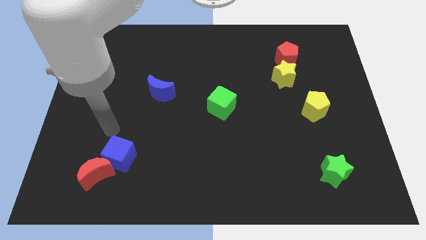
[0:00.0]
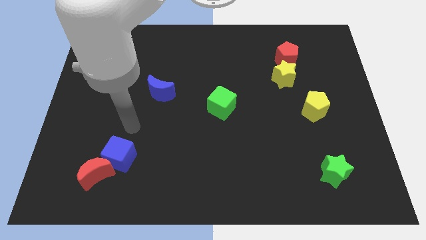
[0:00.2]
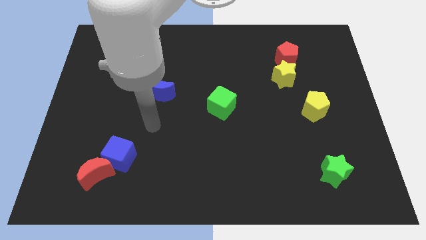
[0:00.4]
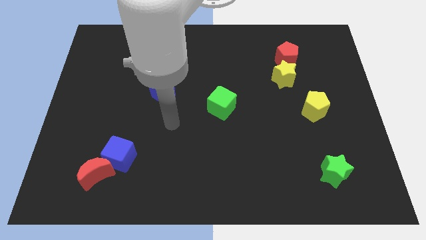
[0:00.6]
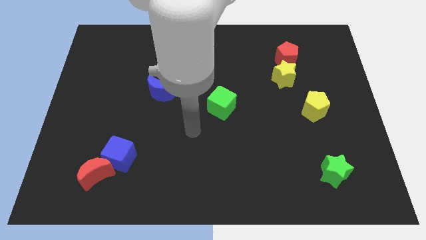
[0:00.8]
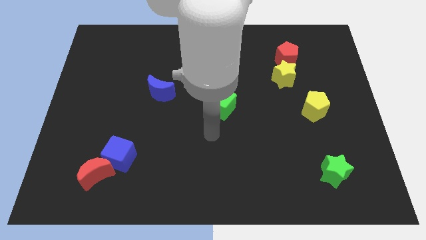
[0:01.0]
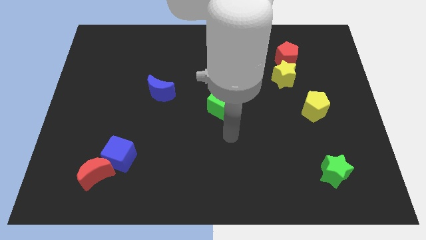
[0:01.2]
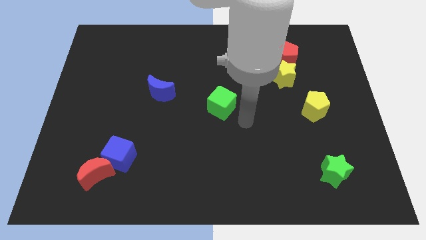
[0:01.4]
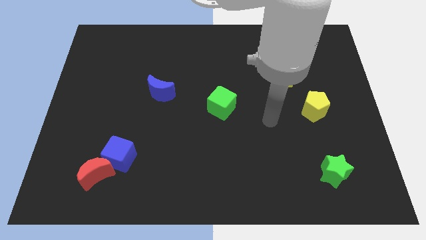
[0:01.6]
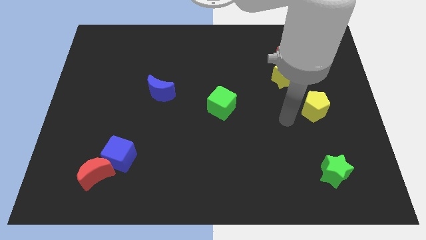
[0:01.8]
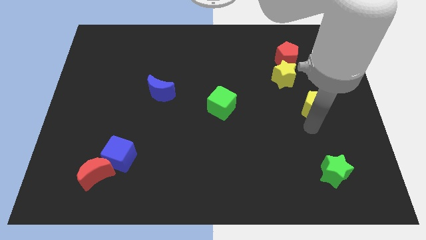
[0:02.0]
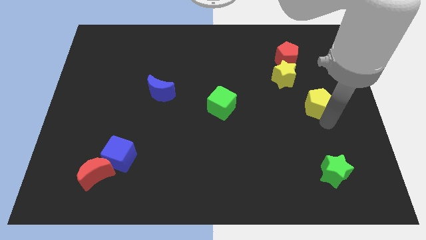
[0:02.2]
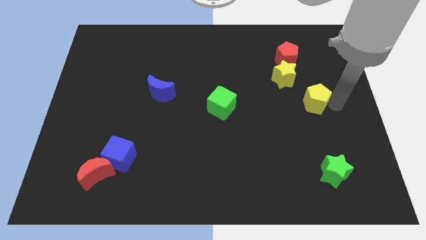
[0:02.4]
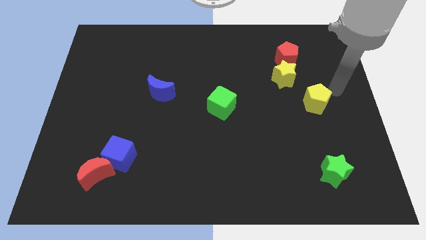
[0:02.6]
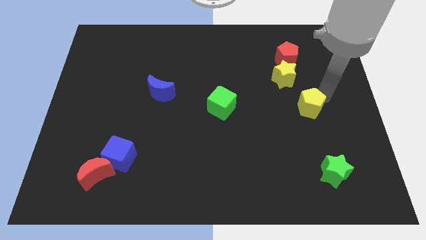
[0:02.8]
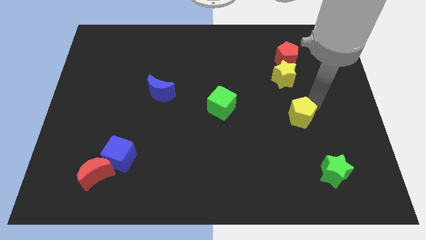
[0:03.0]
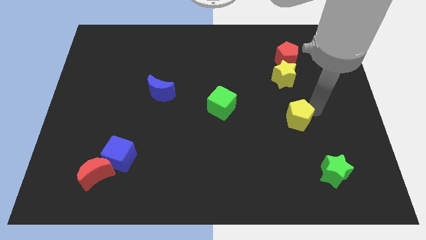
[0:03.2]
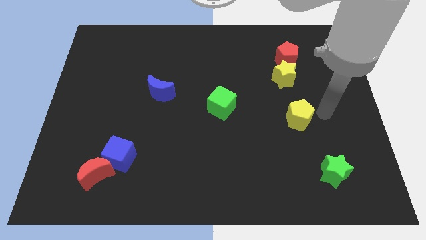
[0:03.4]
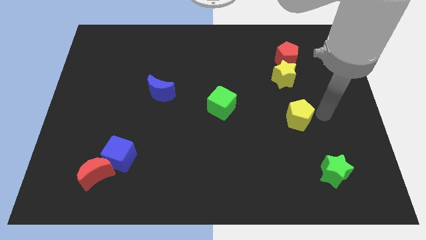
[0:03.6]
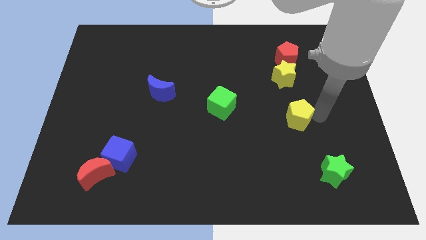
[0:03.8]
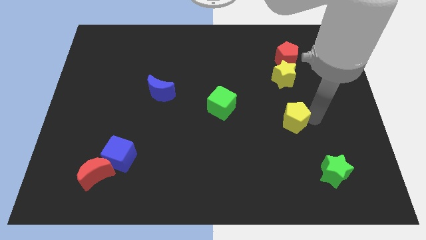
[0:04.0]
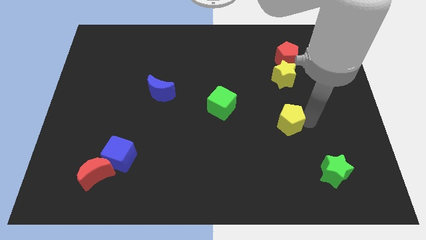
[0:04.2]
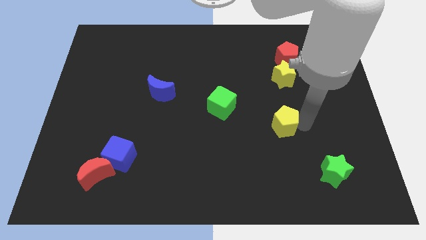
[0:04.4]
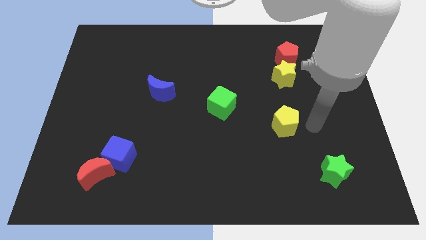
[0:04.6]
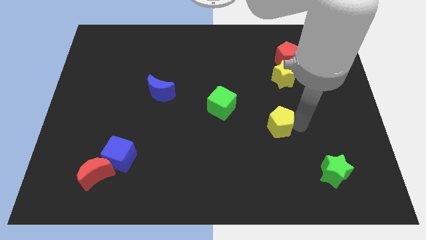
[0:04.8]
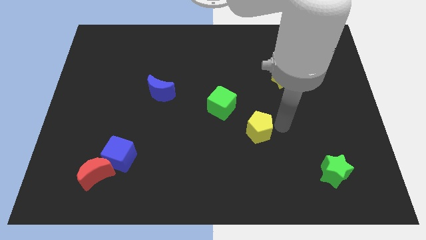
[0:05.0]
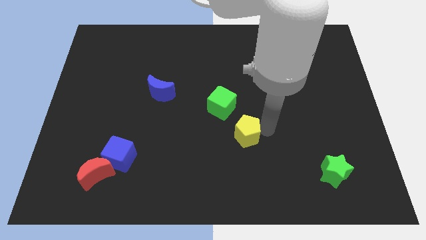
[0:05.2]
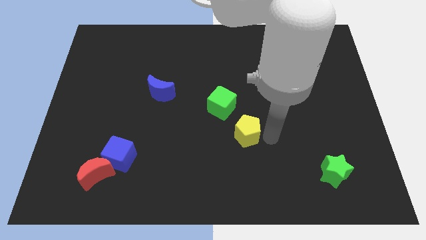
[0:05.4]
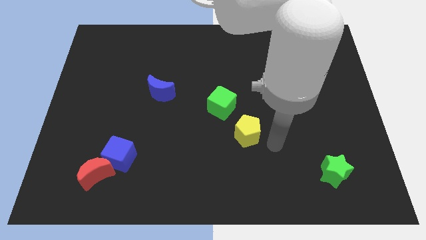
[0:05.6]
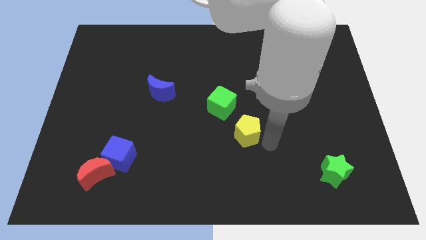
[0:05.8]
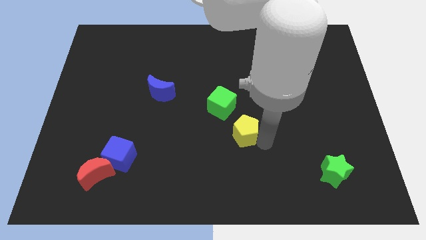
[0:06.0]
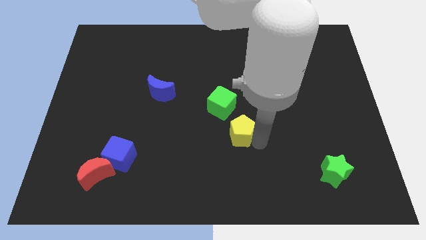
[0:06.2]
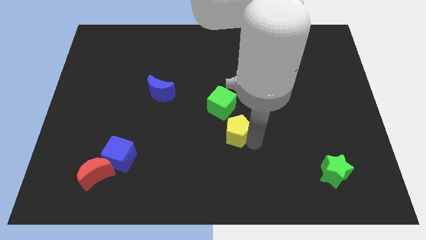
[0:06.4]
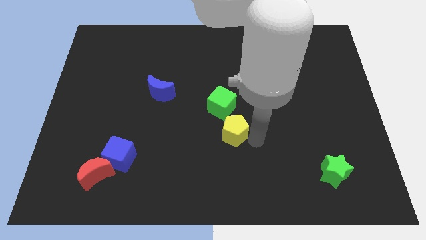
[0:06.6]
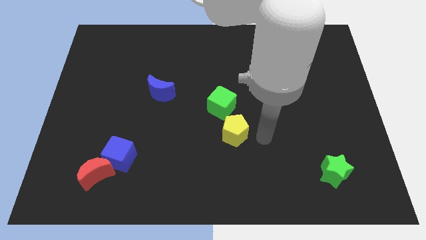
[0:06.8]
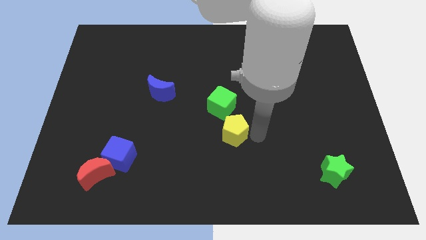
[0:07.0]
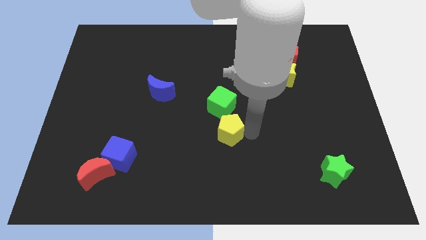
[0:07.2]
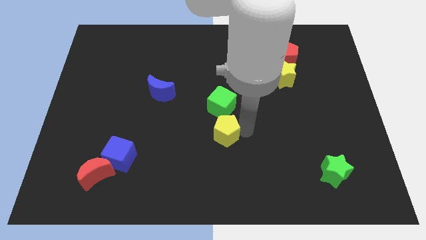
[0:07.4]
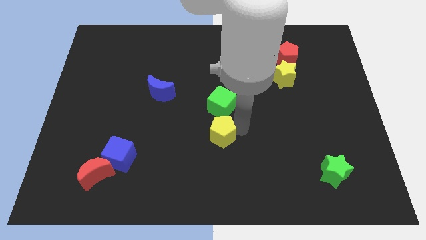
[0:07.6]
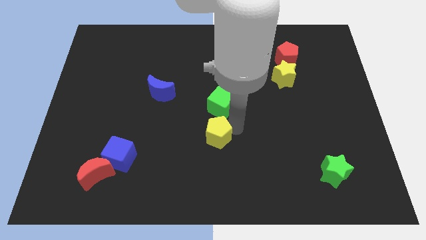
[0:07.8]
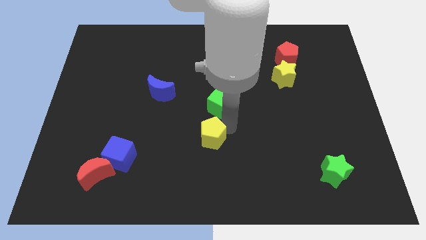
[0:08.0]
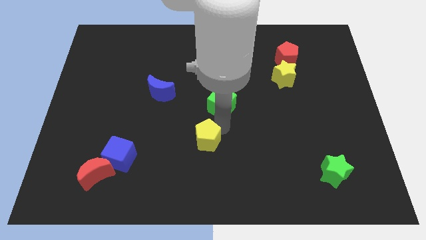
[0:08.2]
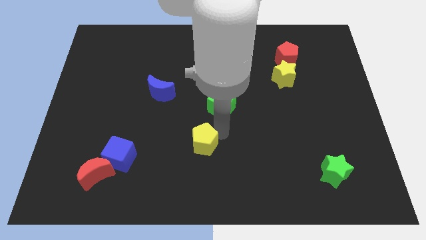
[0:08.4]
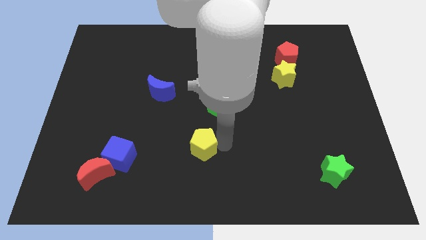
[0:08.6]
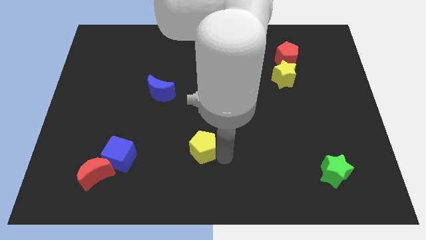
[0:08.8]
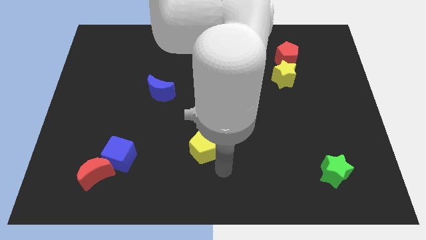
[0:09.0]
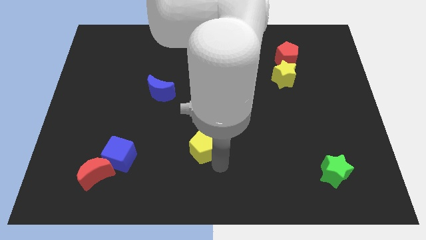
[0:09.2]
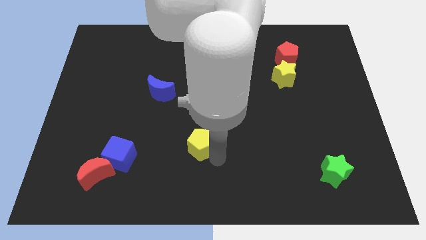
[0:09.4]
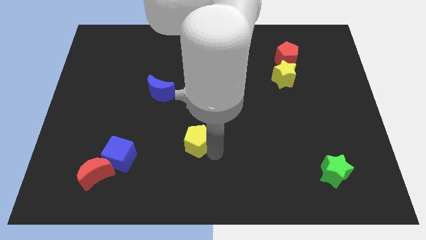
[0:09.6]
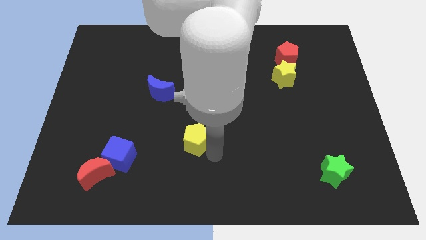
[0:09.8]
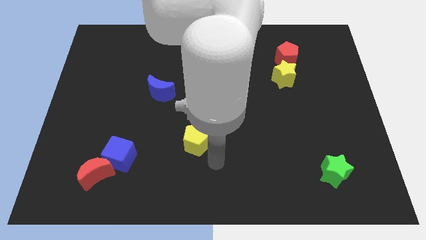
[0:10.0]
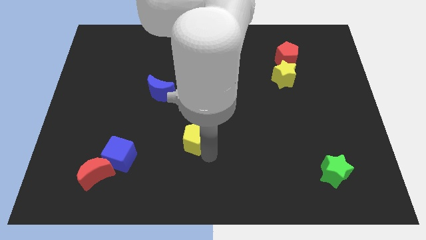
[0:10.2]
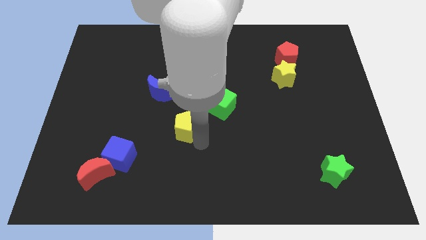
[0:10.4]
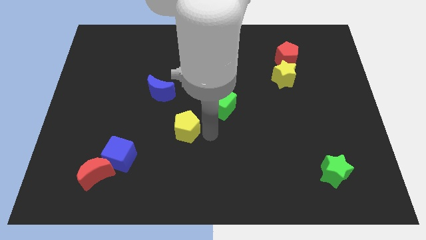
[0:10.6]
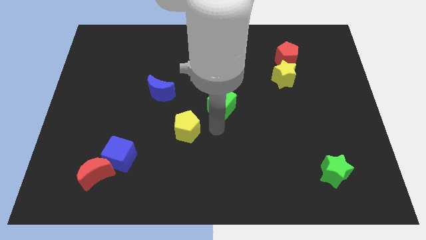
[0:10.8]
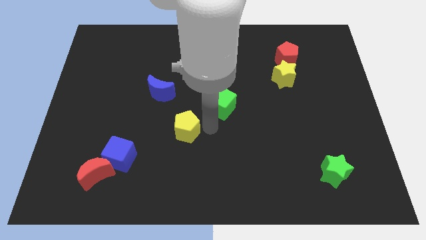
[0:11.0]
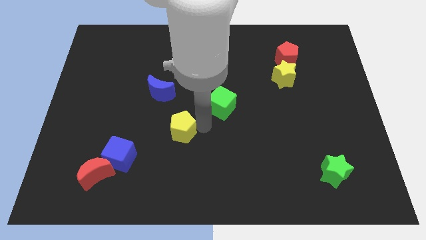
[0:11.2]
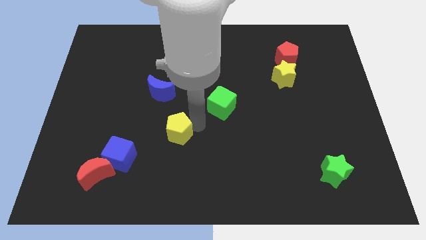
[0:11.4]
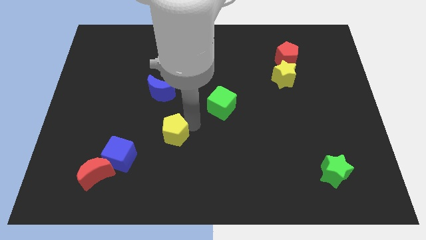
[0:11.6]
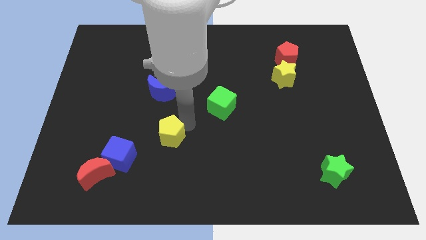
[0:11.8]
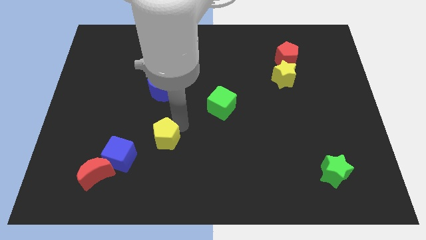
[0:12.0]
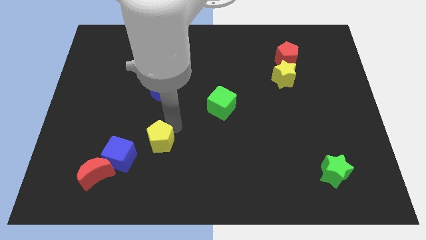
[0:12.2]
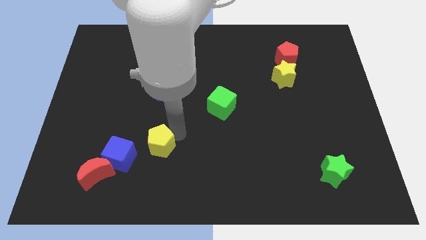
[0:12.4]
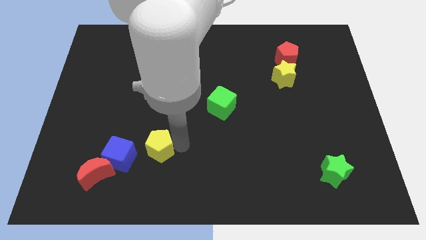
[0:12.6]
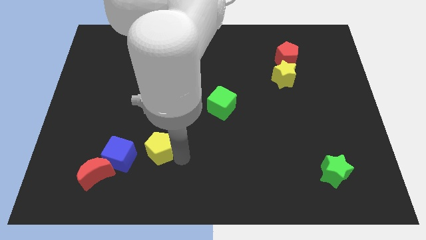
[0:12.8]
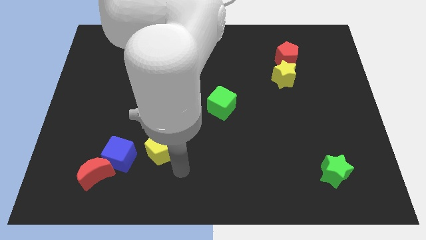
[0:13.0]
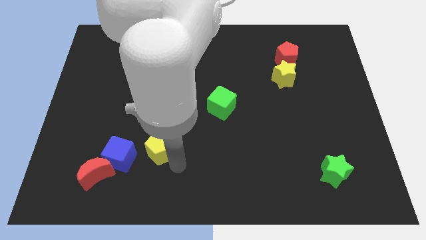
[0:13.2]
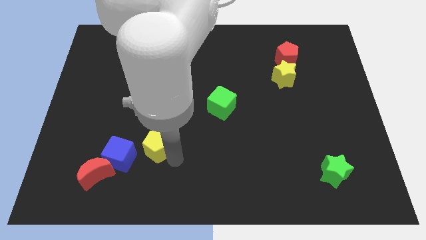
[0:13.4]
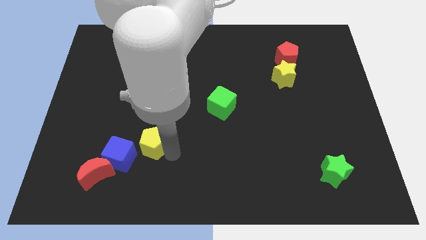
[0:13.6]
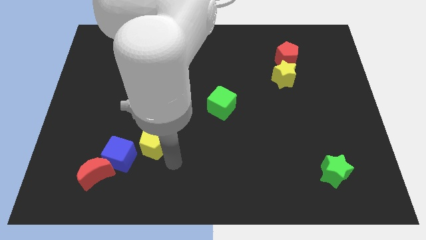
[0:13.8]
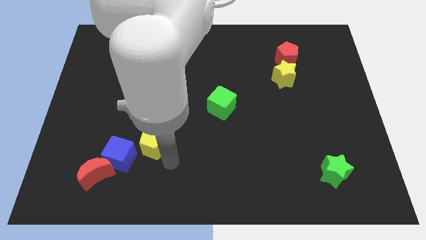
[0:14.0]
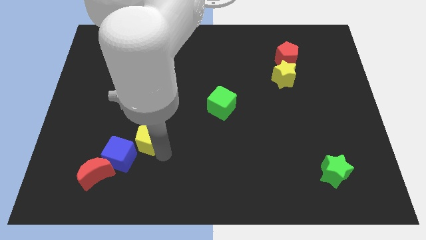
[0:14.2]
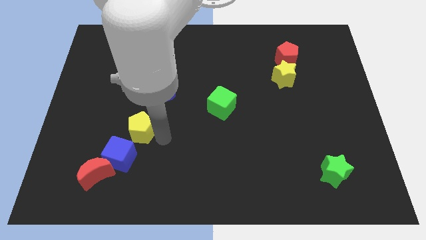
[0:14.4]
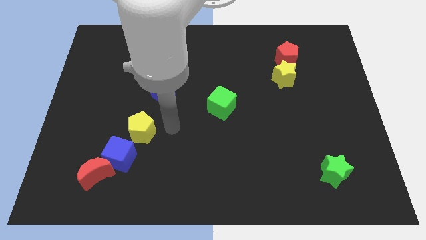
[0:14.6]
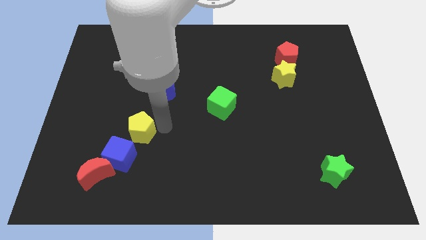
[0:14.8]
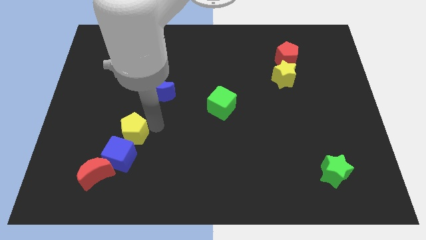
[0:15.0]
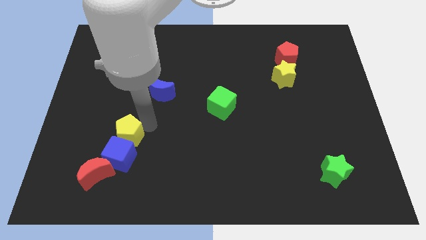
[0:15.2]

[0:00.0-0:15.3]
move the yellow pentagon to the top left of the blue cube
